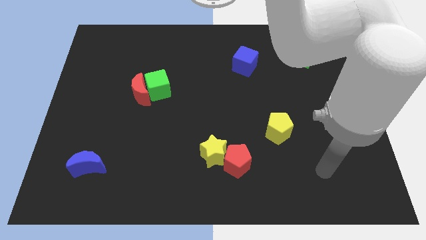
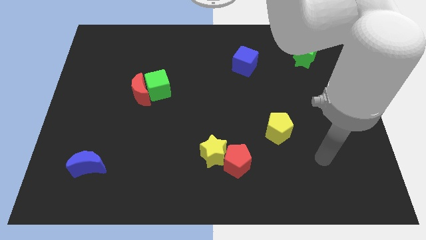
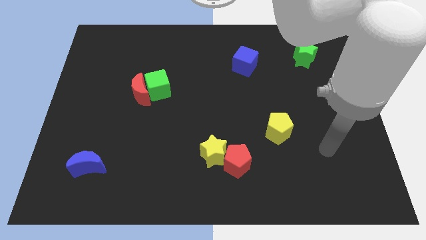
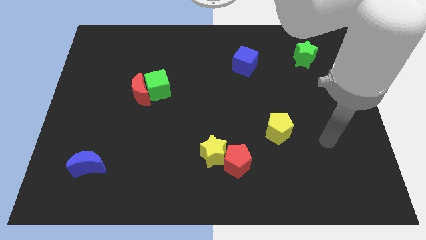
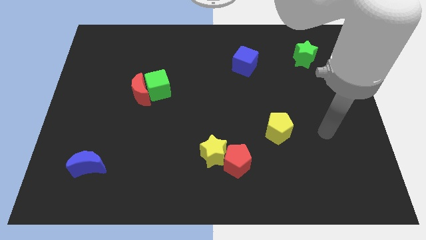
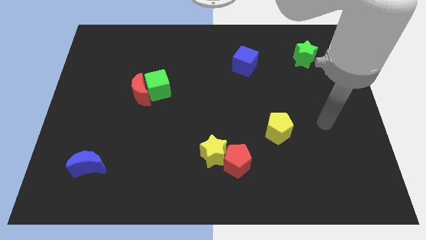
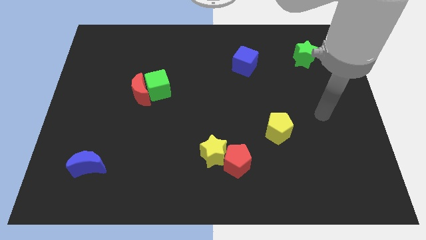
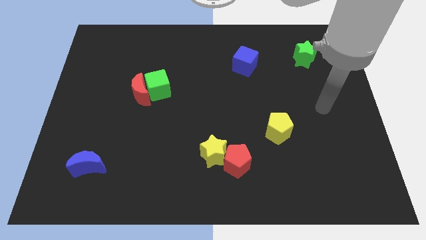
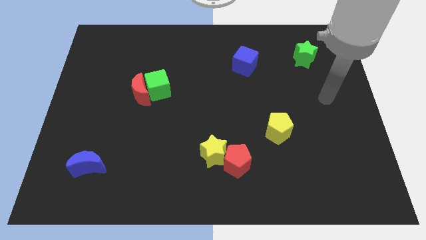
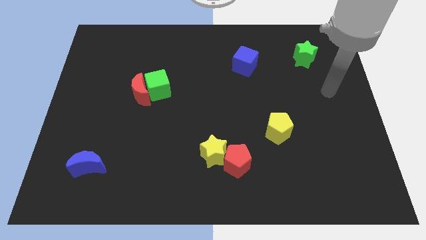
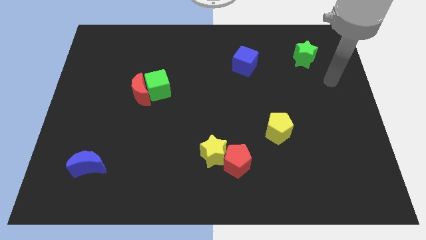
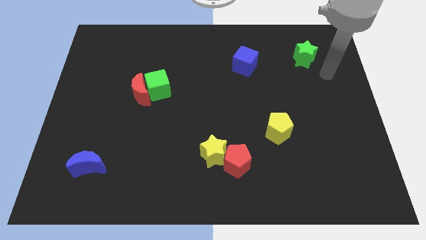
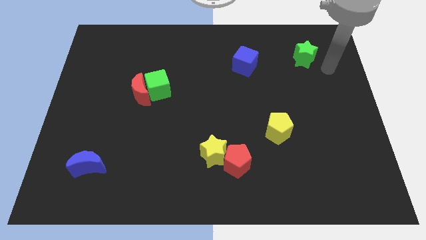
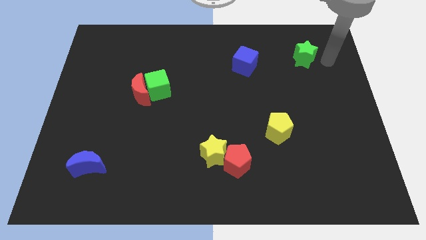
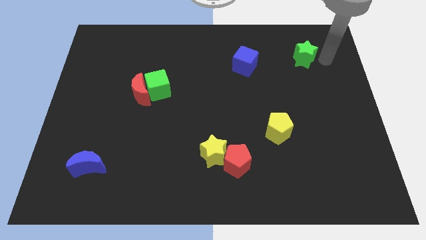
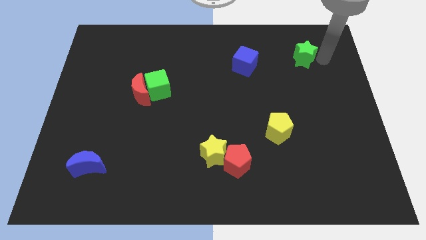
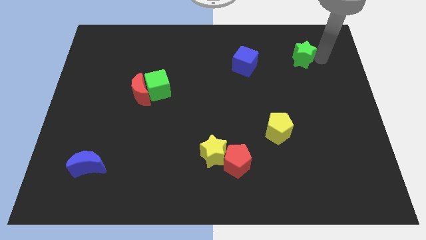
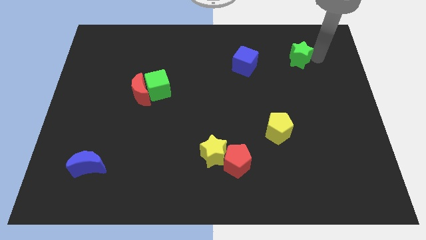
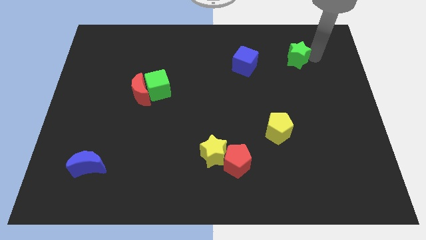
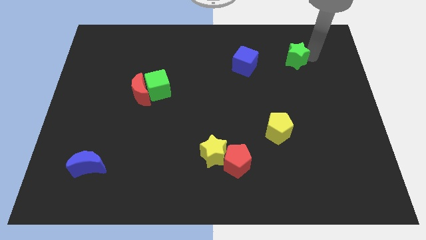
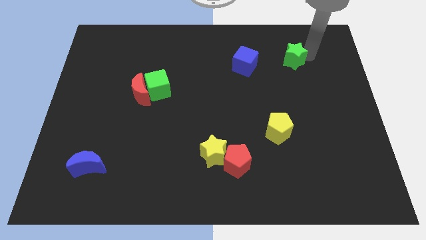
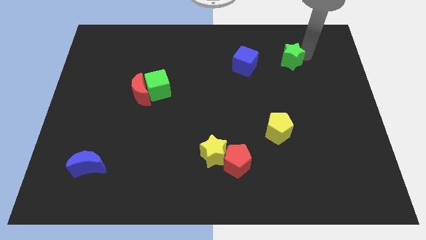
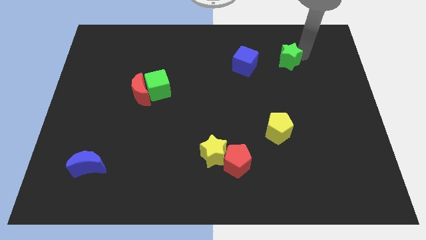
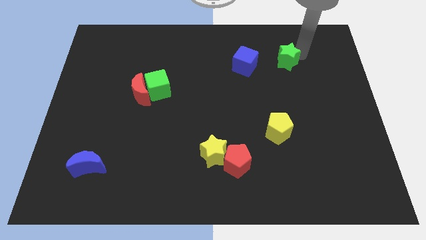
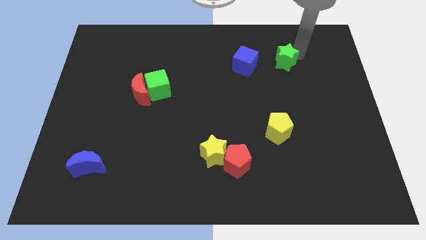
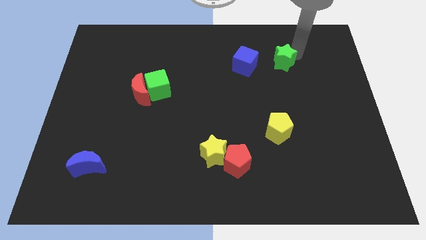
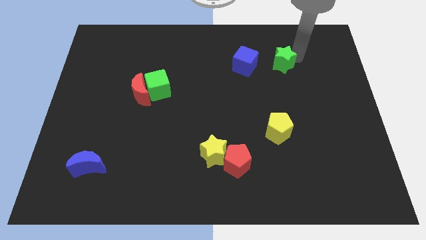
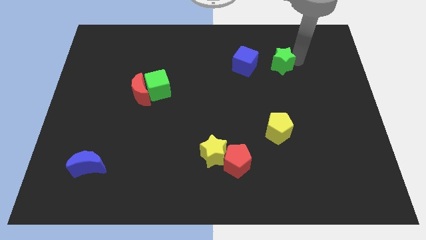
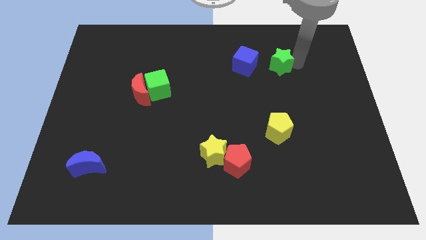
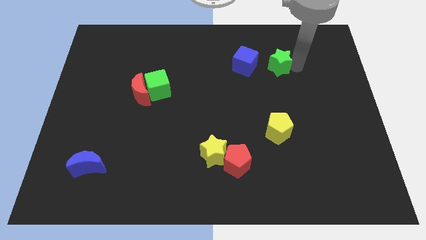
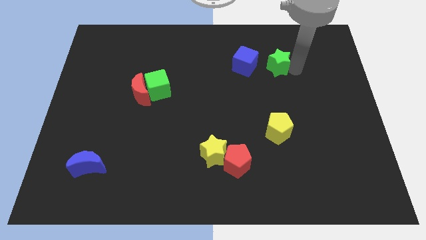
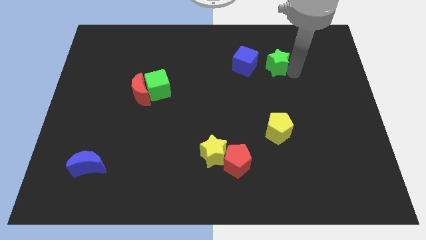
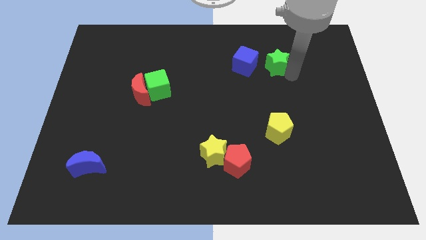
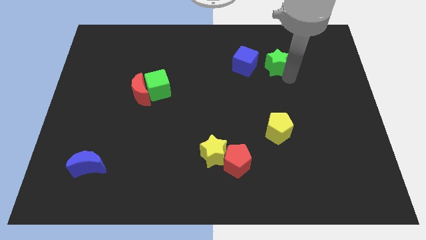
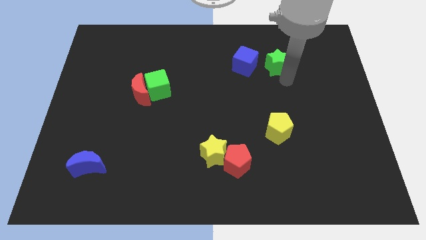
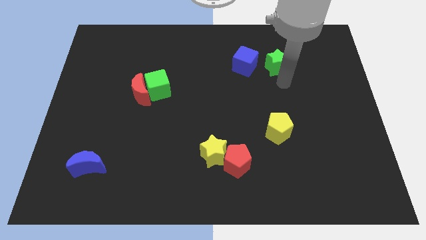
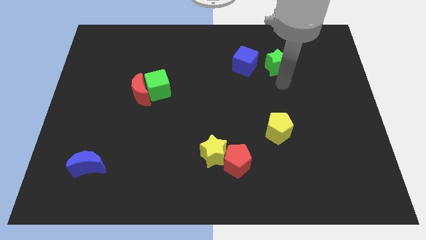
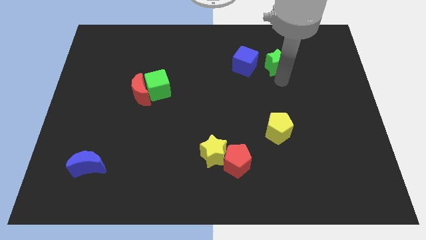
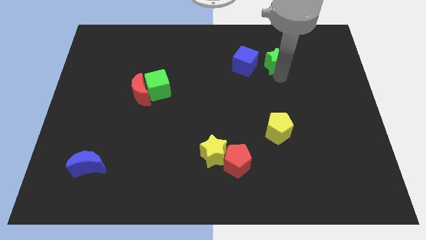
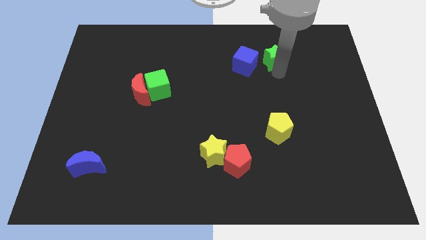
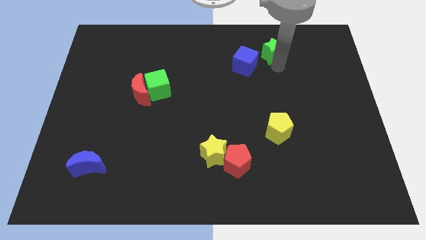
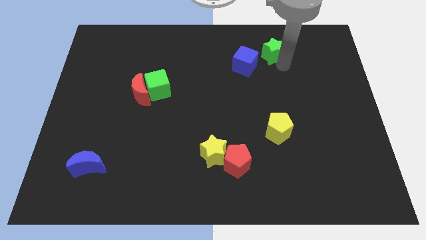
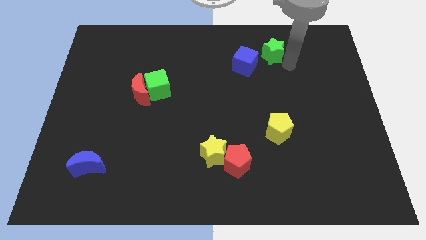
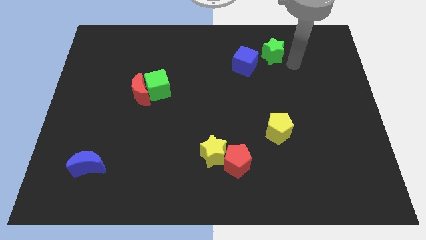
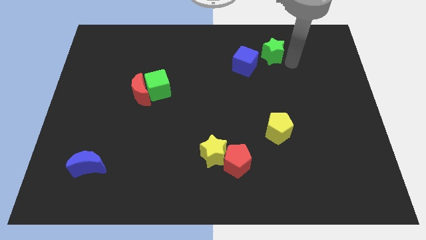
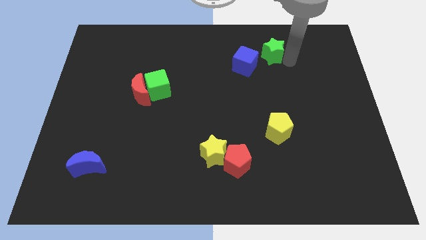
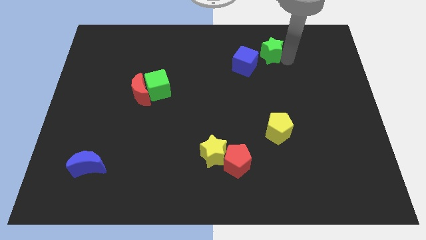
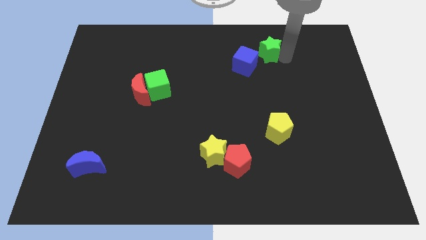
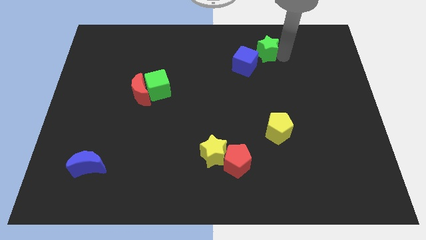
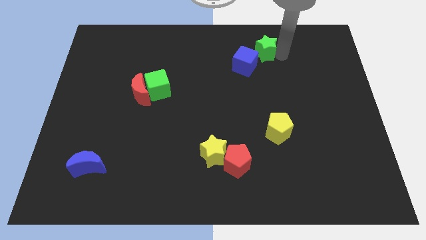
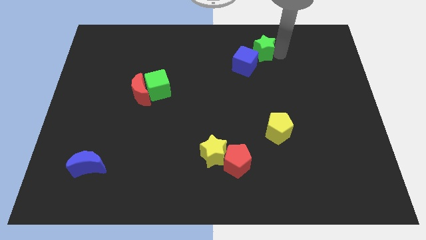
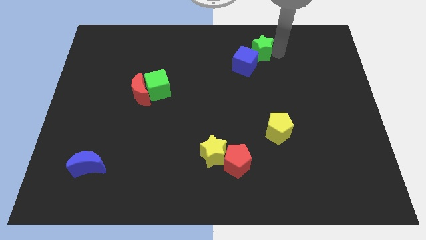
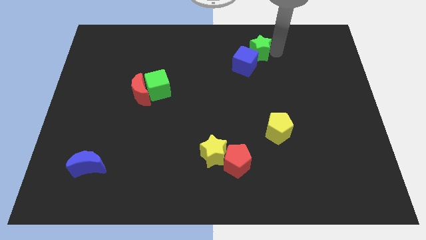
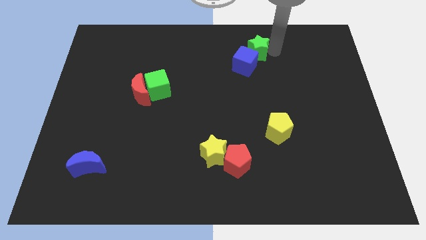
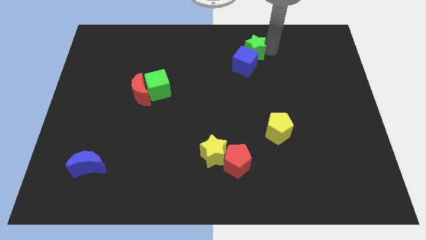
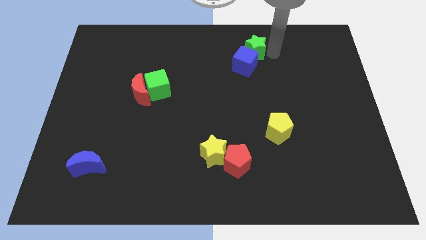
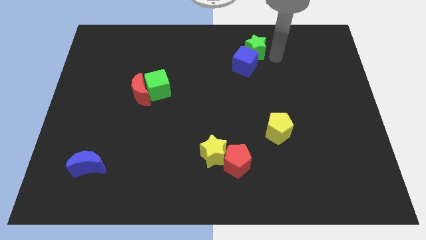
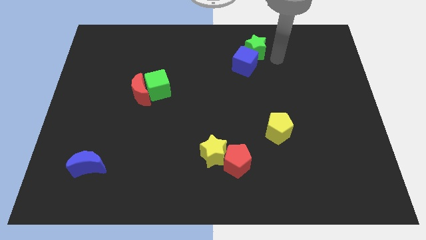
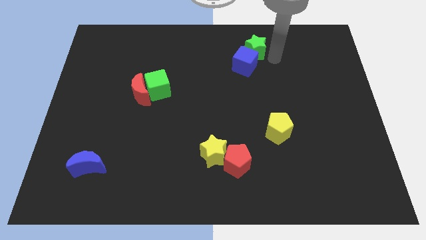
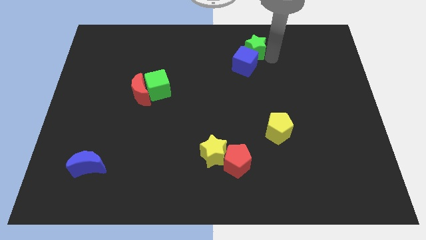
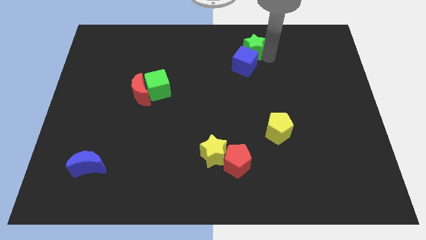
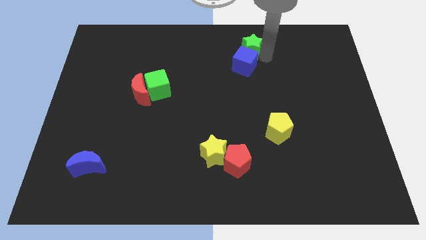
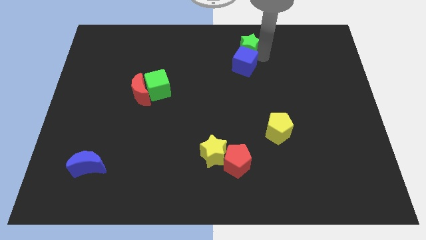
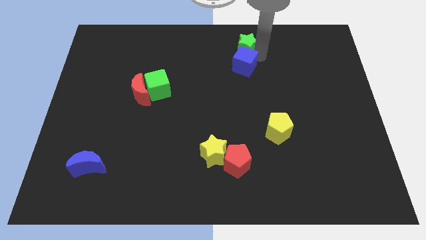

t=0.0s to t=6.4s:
put the green star to the top side
